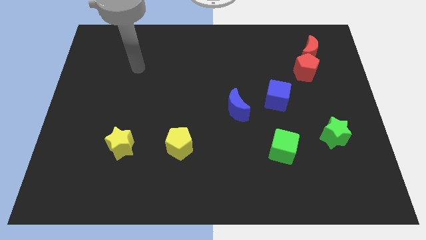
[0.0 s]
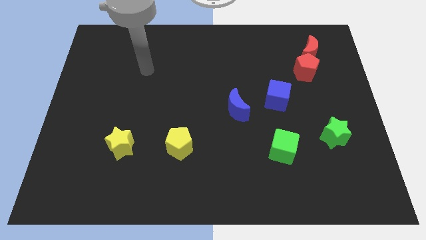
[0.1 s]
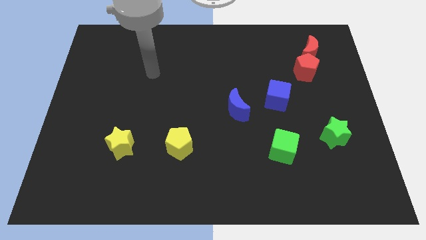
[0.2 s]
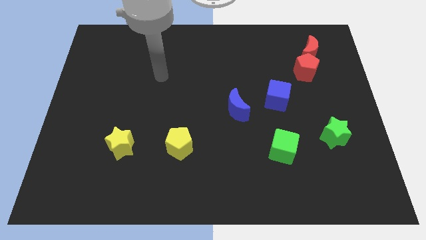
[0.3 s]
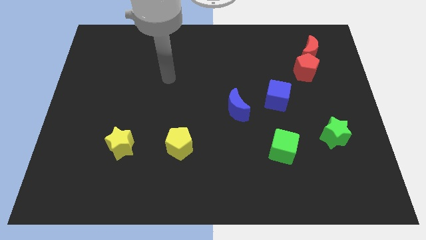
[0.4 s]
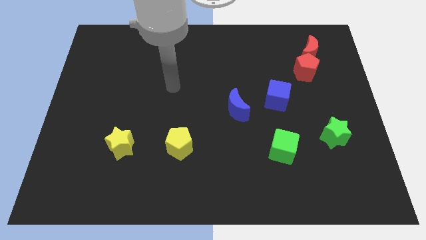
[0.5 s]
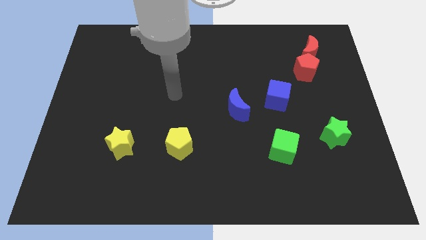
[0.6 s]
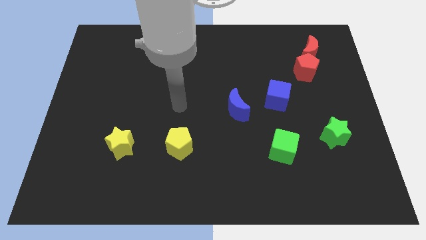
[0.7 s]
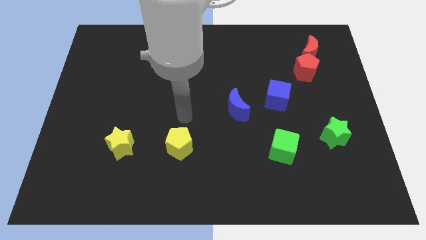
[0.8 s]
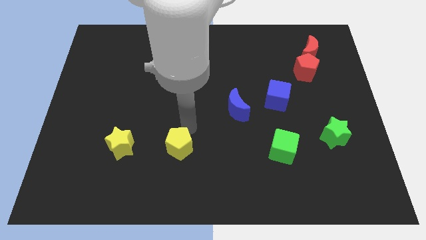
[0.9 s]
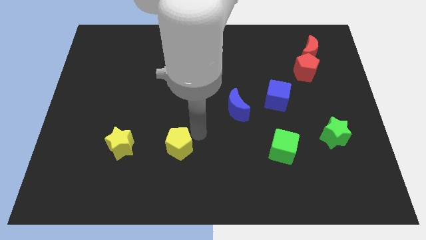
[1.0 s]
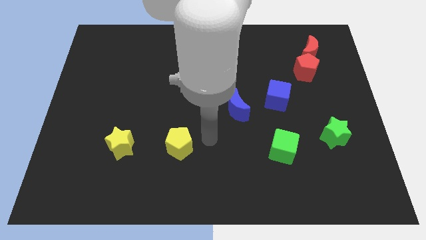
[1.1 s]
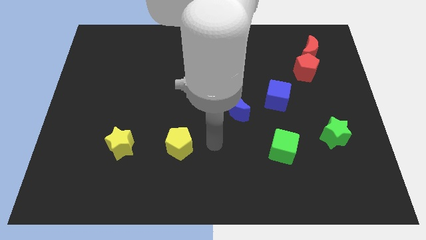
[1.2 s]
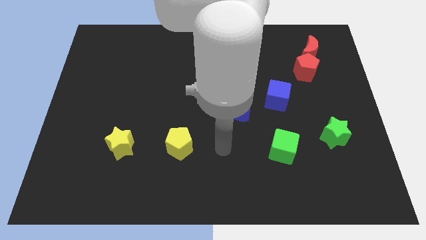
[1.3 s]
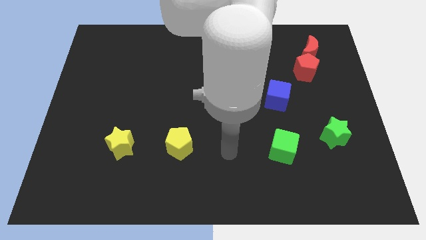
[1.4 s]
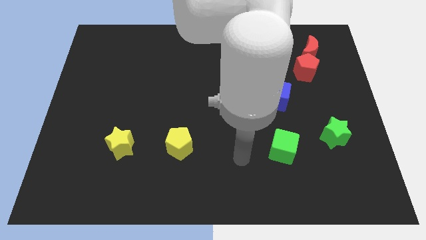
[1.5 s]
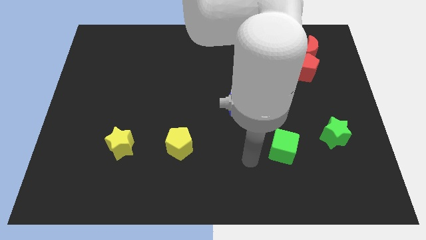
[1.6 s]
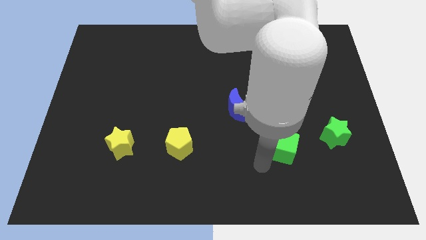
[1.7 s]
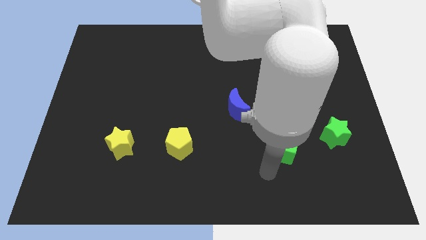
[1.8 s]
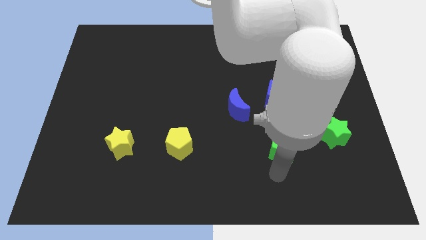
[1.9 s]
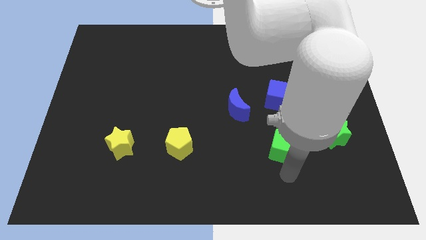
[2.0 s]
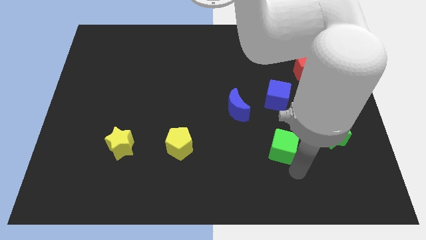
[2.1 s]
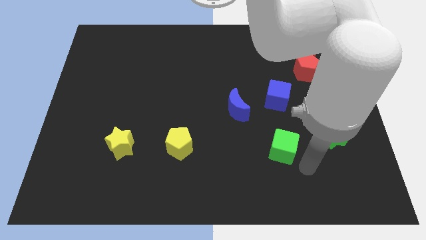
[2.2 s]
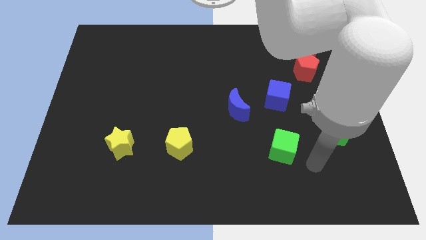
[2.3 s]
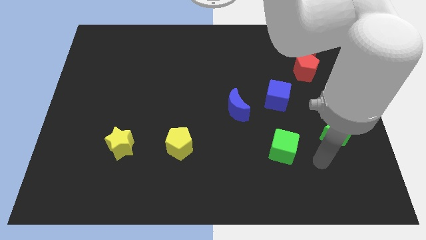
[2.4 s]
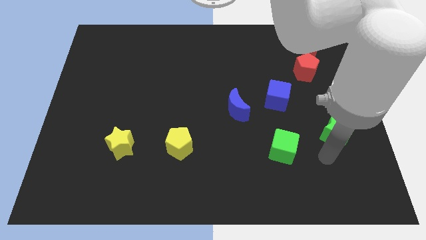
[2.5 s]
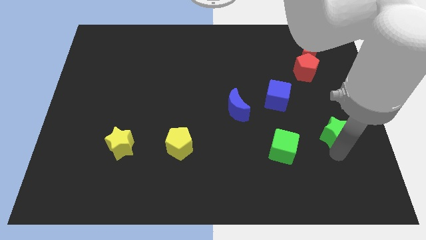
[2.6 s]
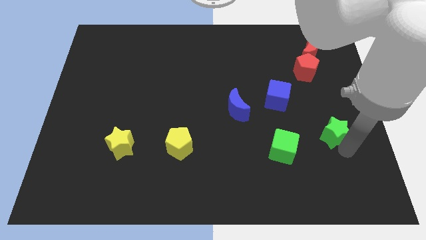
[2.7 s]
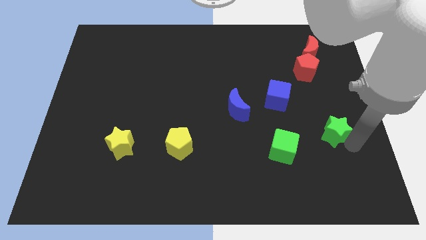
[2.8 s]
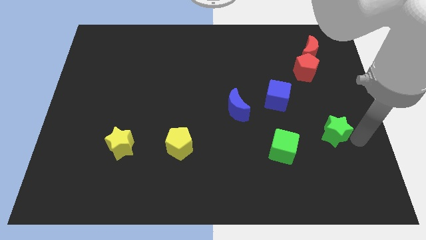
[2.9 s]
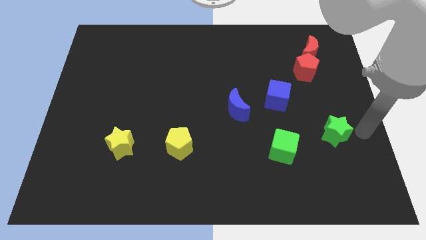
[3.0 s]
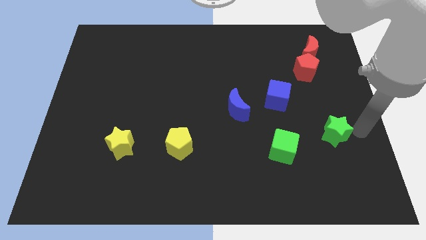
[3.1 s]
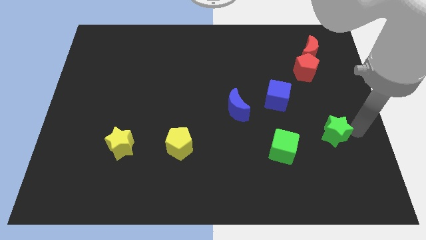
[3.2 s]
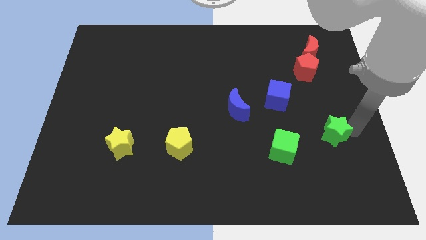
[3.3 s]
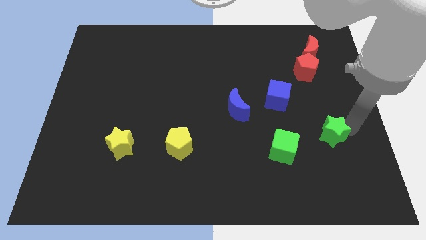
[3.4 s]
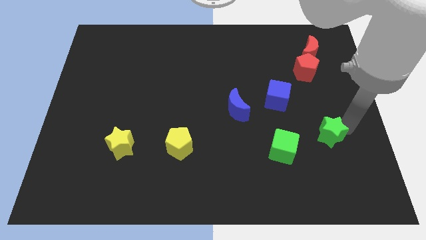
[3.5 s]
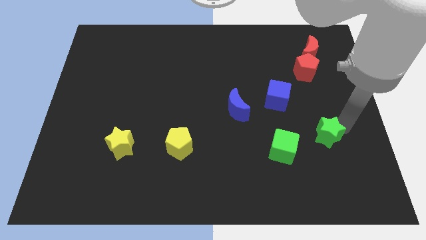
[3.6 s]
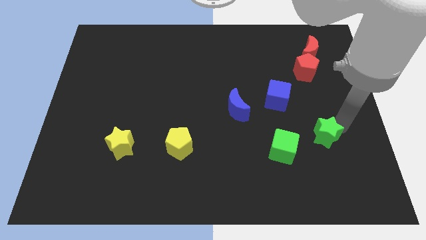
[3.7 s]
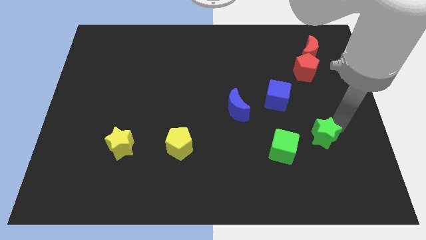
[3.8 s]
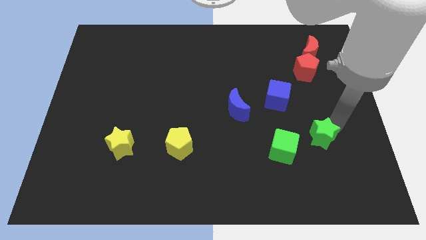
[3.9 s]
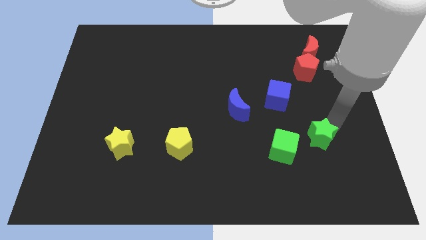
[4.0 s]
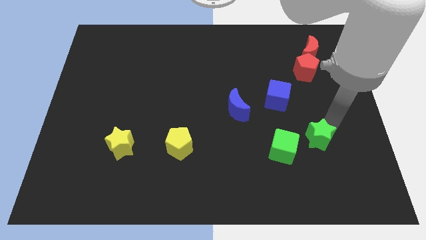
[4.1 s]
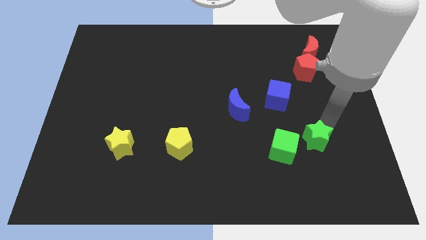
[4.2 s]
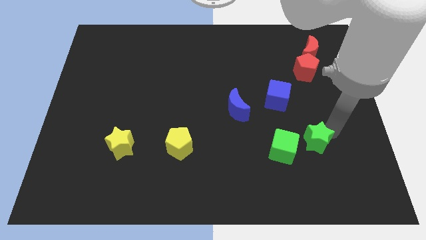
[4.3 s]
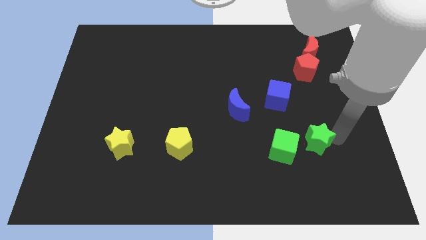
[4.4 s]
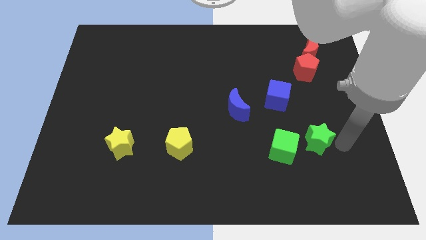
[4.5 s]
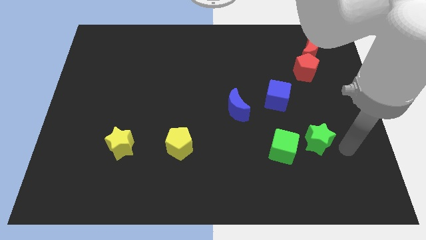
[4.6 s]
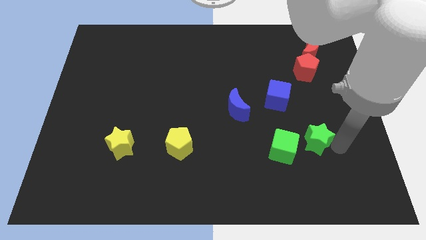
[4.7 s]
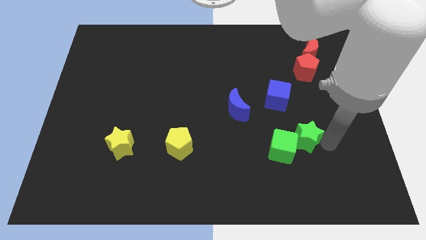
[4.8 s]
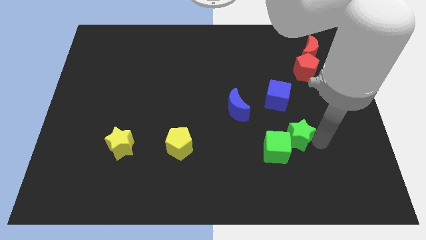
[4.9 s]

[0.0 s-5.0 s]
slide the green star left a bit

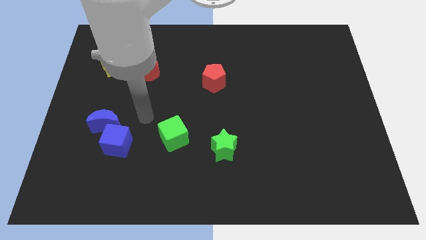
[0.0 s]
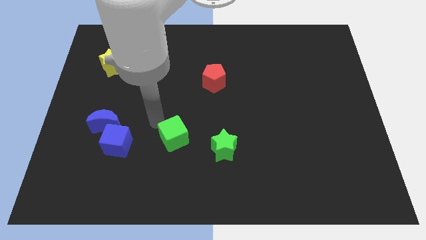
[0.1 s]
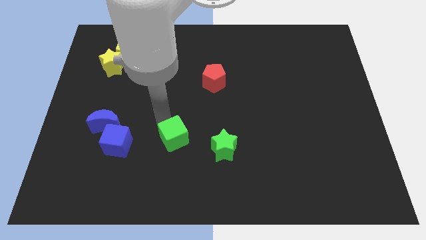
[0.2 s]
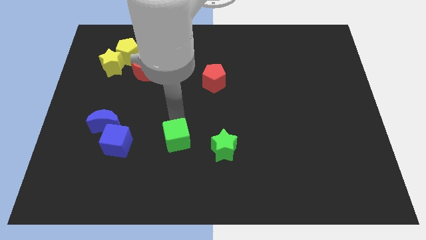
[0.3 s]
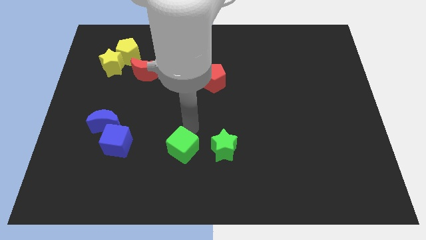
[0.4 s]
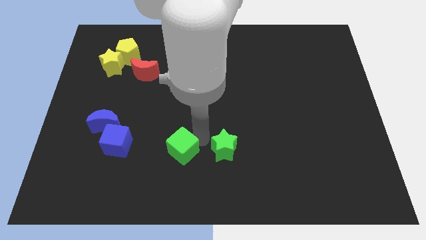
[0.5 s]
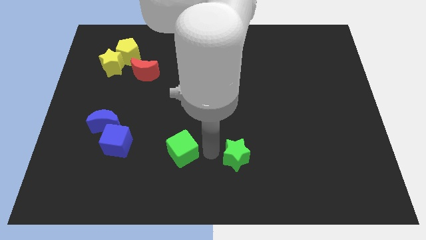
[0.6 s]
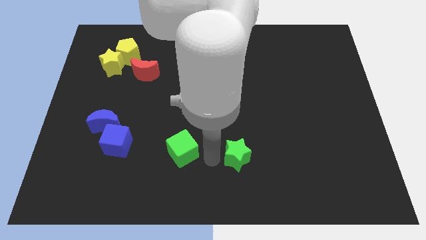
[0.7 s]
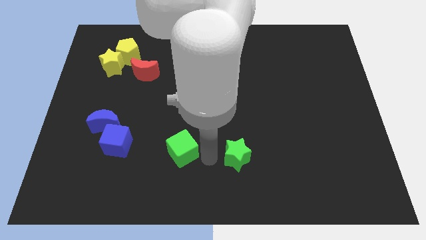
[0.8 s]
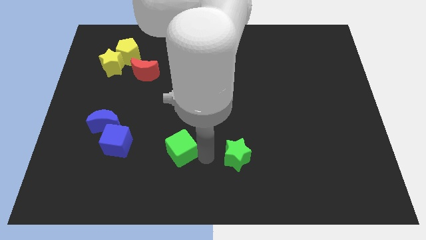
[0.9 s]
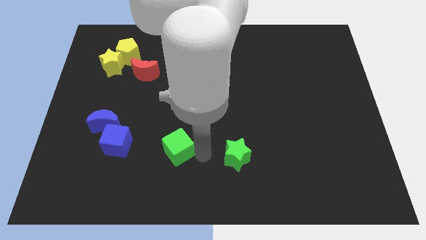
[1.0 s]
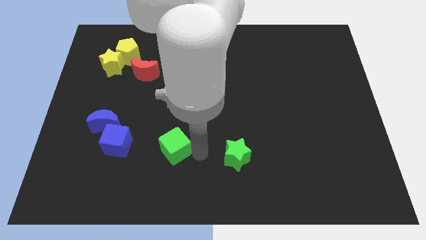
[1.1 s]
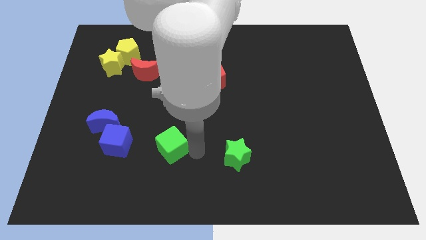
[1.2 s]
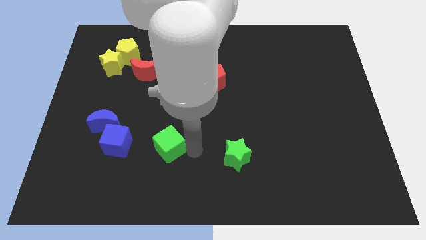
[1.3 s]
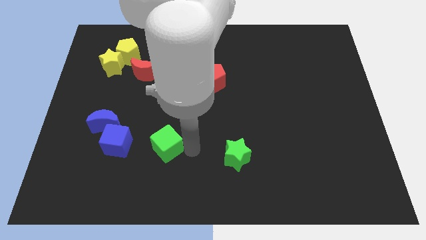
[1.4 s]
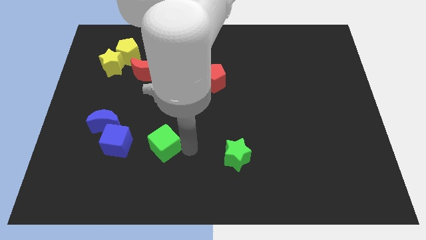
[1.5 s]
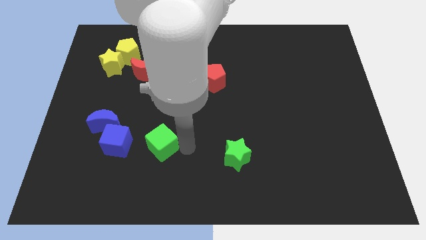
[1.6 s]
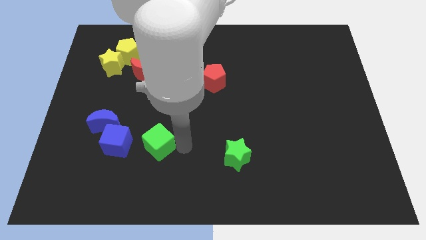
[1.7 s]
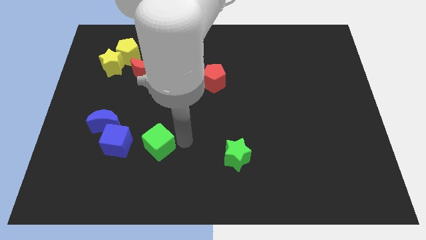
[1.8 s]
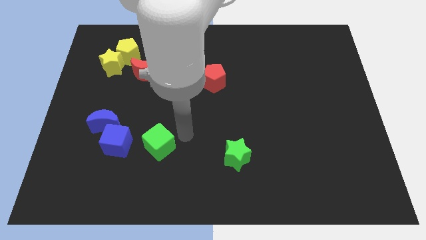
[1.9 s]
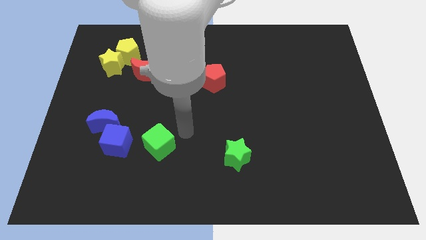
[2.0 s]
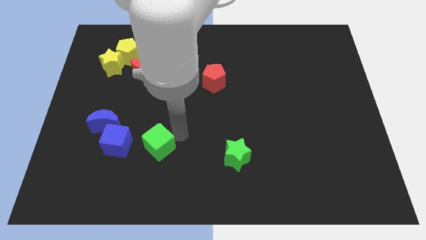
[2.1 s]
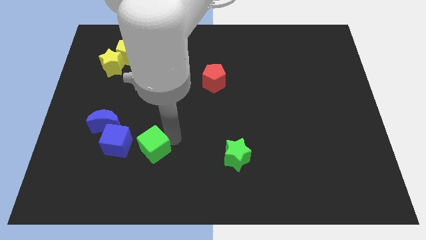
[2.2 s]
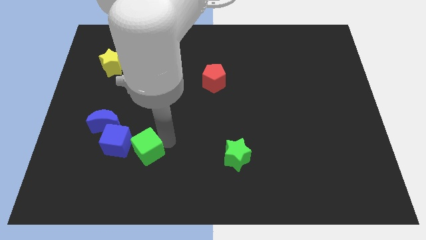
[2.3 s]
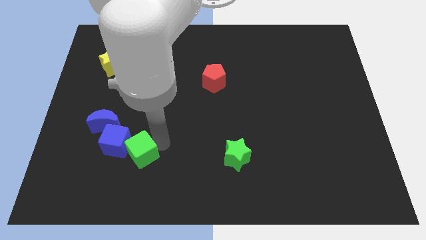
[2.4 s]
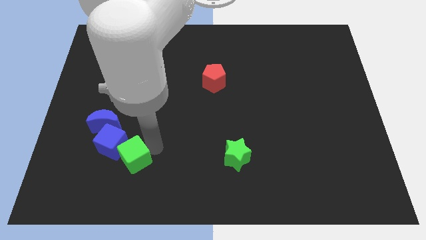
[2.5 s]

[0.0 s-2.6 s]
move the green cube a little bit to the left

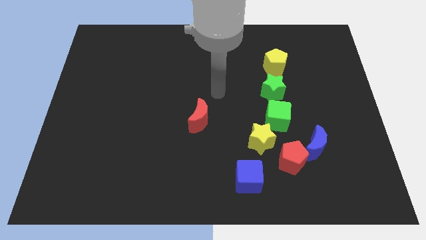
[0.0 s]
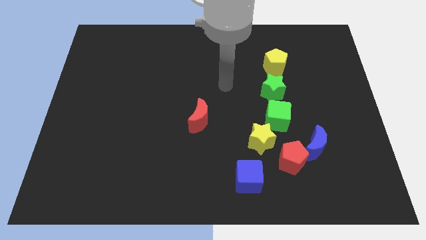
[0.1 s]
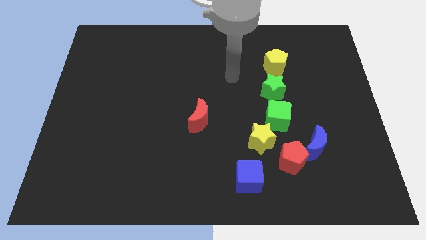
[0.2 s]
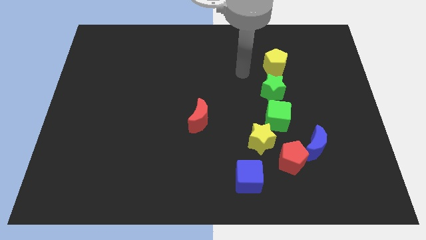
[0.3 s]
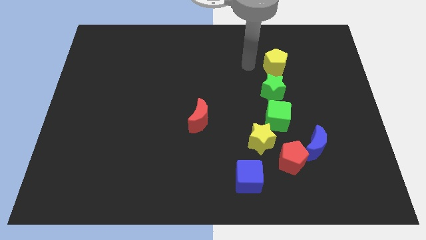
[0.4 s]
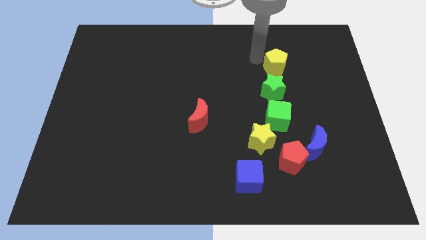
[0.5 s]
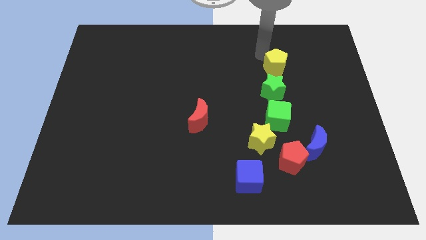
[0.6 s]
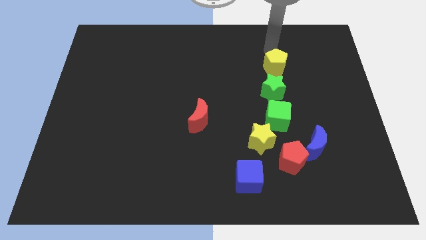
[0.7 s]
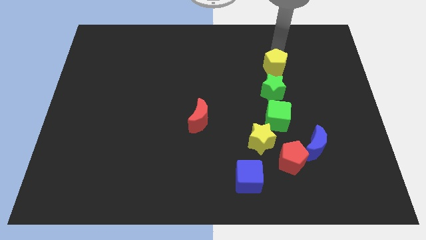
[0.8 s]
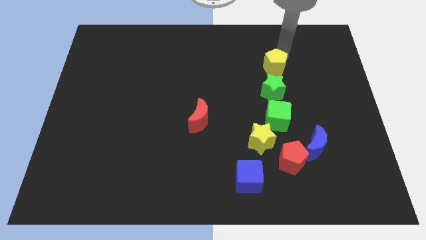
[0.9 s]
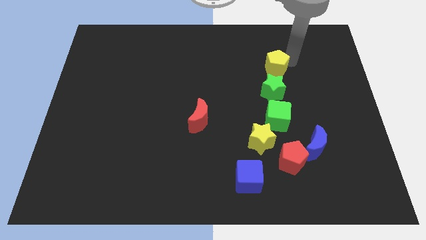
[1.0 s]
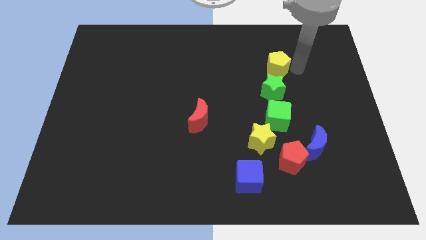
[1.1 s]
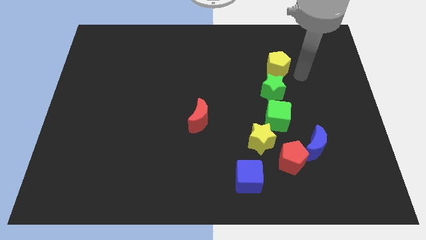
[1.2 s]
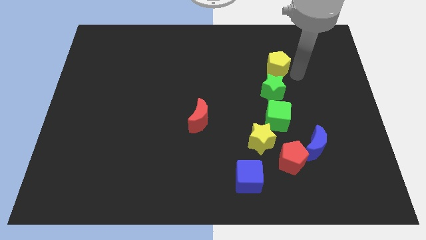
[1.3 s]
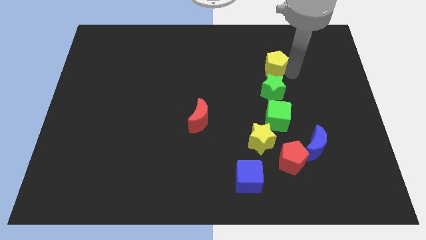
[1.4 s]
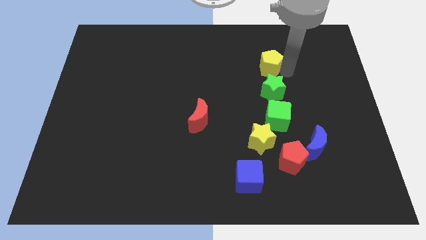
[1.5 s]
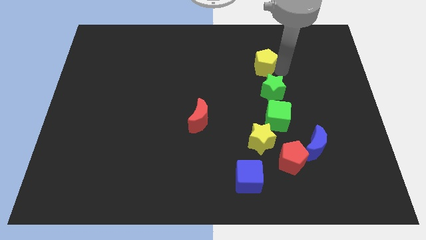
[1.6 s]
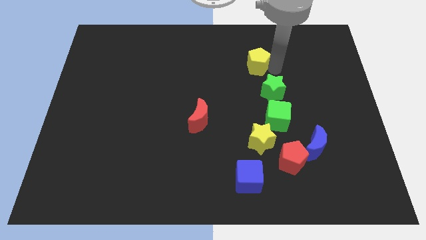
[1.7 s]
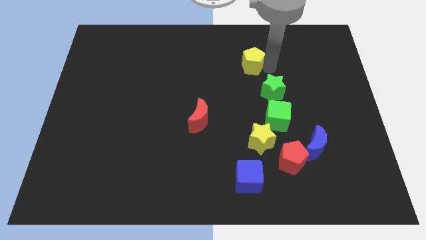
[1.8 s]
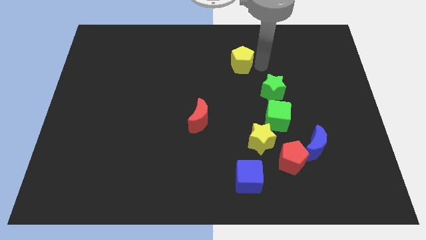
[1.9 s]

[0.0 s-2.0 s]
push the yellow pentagon a little left
